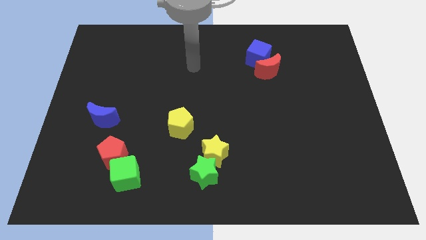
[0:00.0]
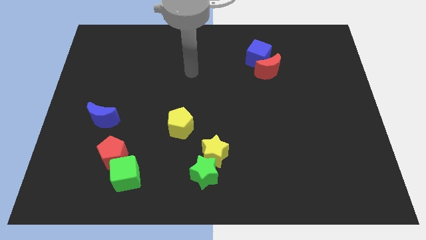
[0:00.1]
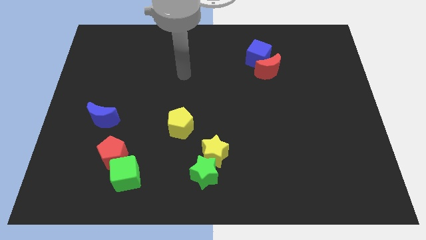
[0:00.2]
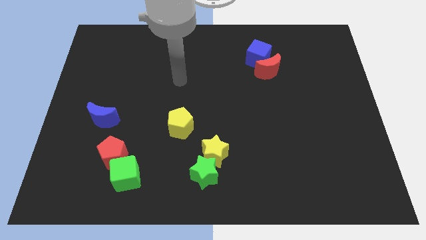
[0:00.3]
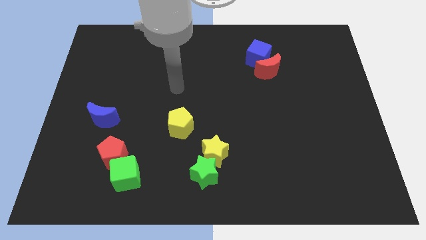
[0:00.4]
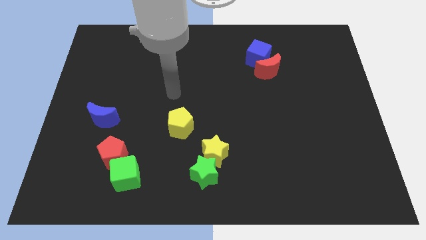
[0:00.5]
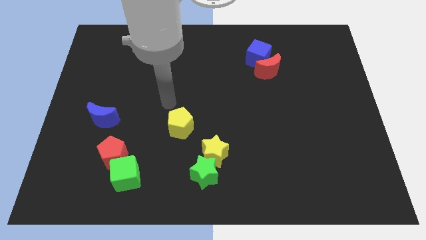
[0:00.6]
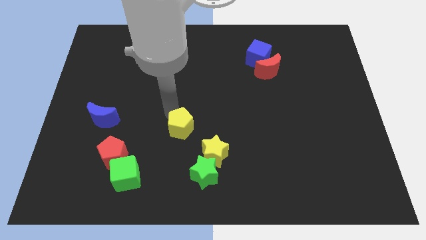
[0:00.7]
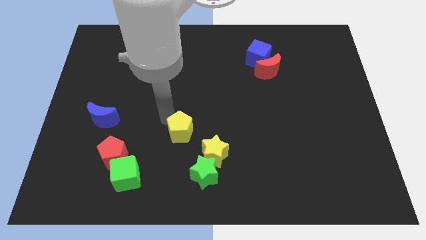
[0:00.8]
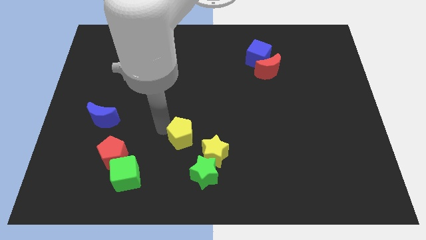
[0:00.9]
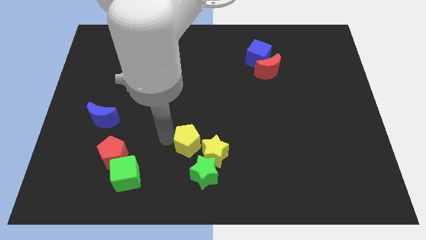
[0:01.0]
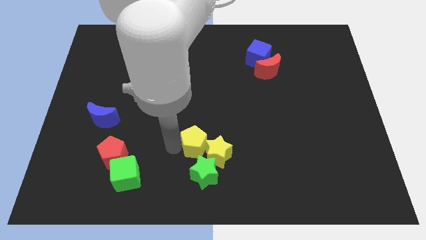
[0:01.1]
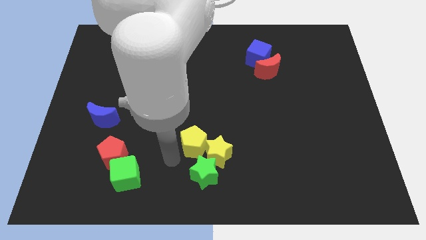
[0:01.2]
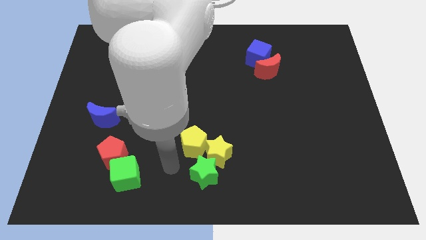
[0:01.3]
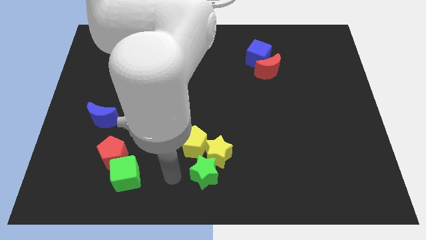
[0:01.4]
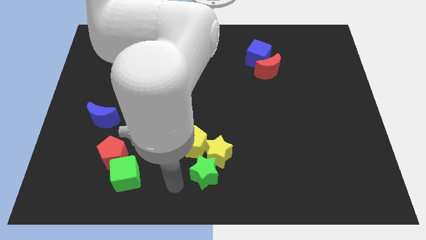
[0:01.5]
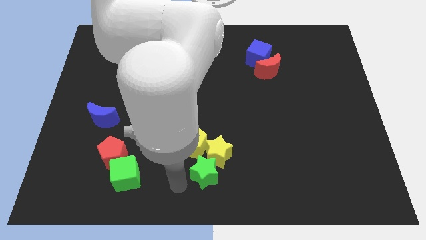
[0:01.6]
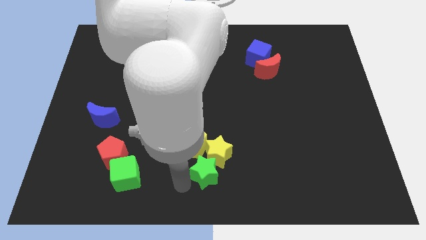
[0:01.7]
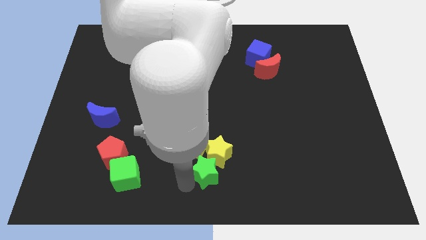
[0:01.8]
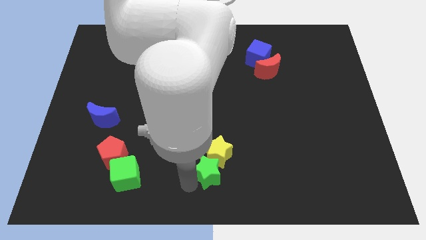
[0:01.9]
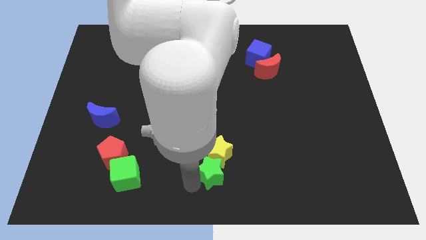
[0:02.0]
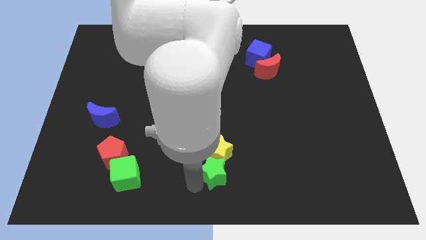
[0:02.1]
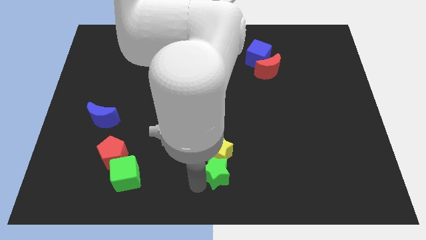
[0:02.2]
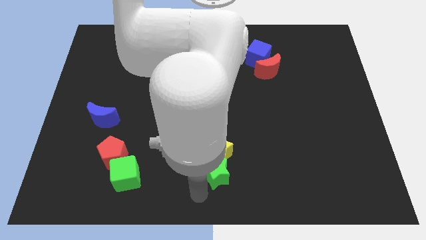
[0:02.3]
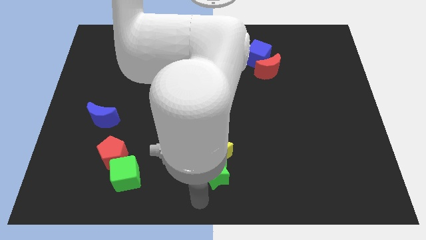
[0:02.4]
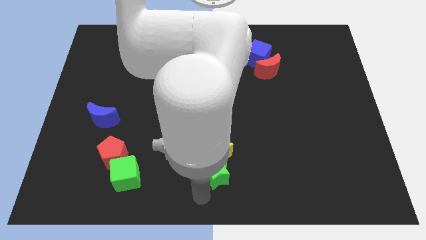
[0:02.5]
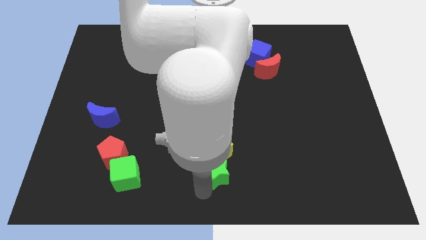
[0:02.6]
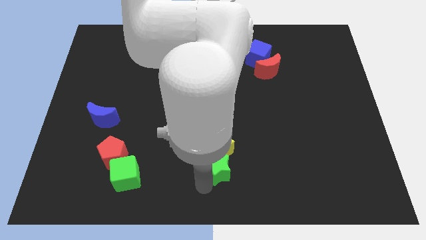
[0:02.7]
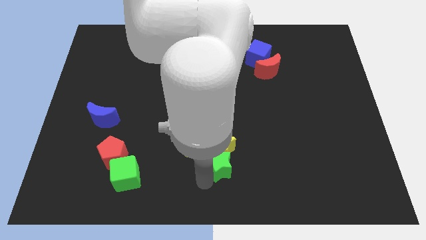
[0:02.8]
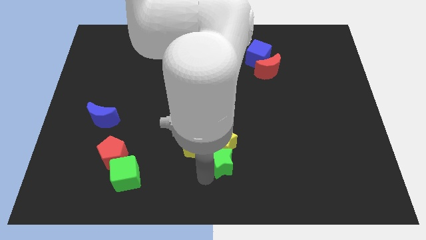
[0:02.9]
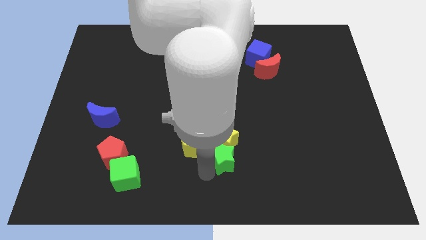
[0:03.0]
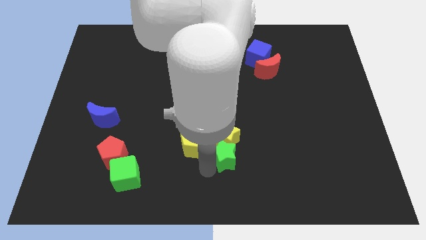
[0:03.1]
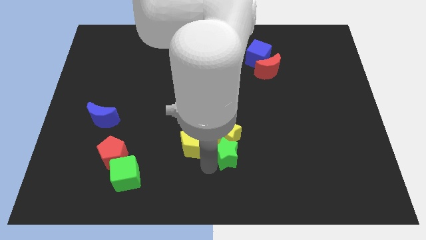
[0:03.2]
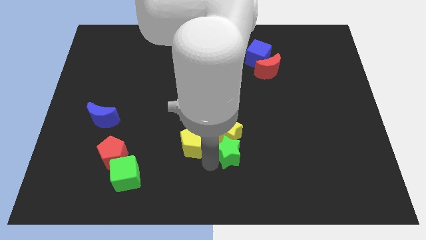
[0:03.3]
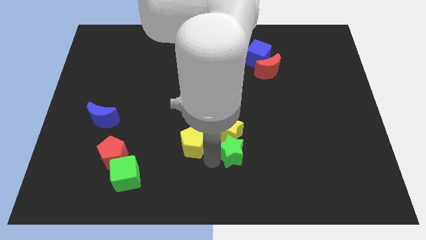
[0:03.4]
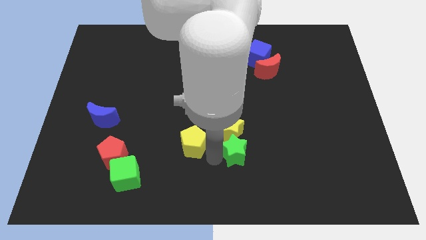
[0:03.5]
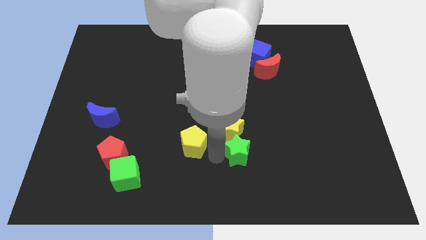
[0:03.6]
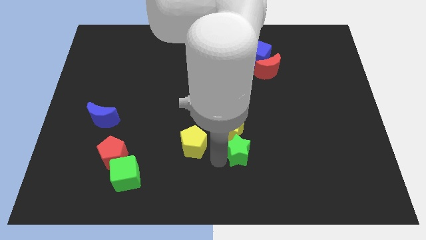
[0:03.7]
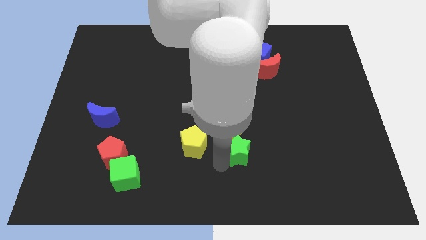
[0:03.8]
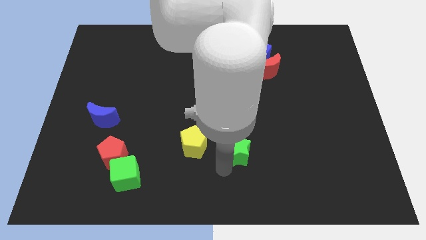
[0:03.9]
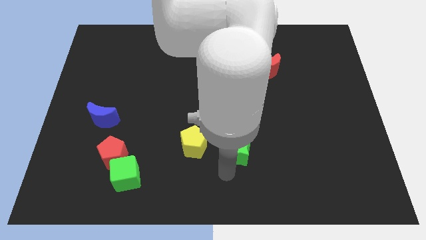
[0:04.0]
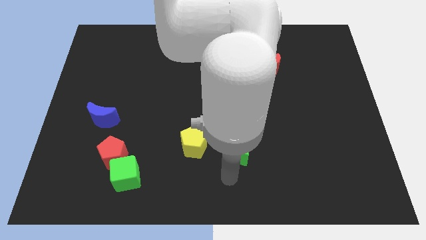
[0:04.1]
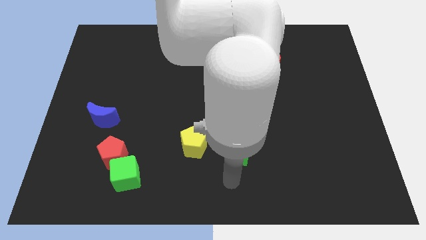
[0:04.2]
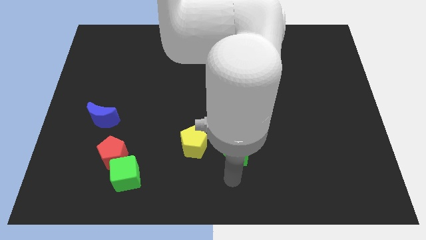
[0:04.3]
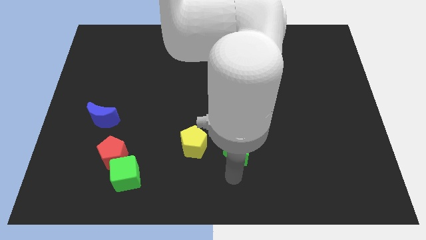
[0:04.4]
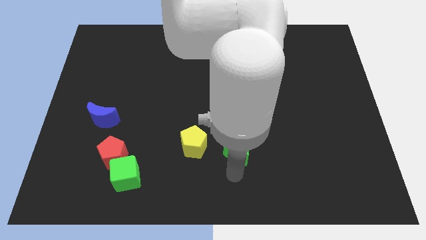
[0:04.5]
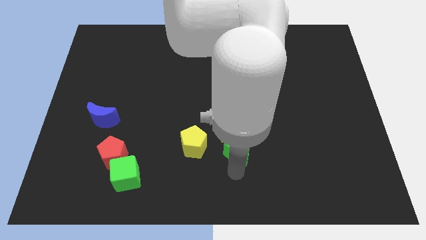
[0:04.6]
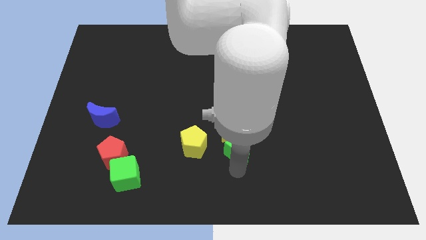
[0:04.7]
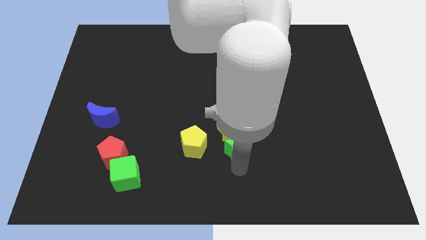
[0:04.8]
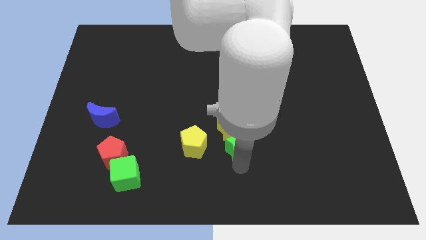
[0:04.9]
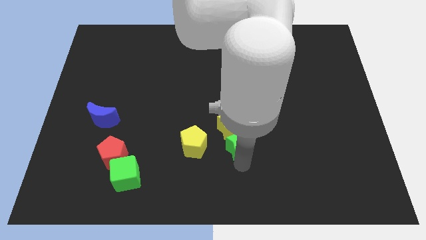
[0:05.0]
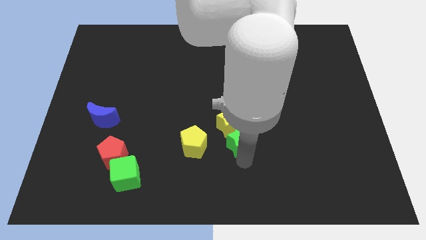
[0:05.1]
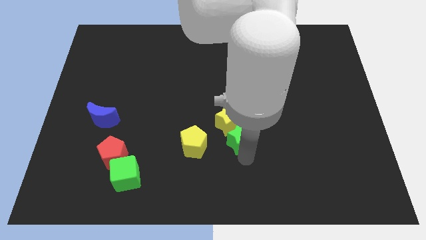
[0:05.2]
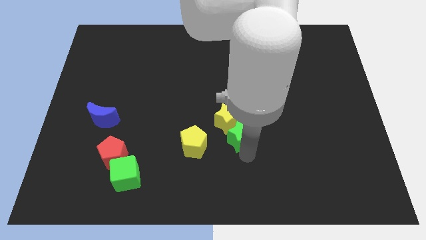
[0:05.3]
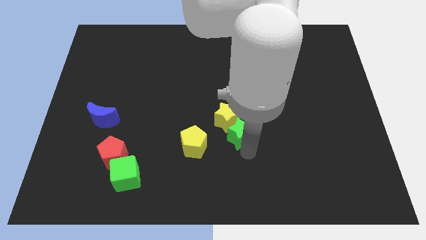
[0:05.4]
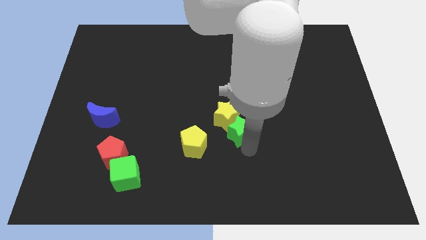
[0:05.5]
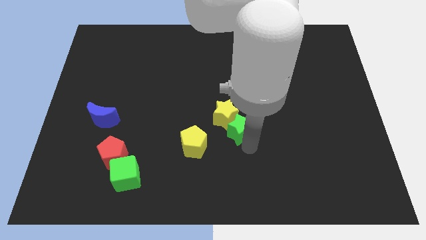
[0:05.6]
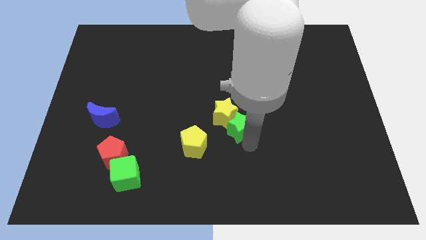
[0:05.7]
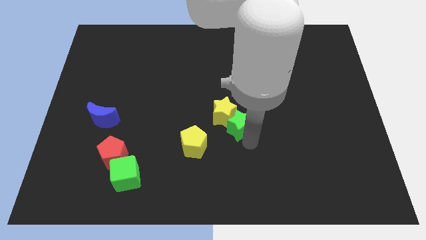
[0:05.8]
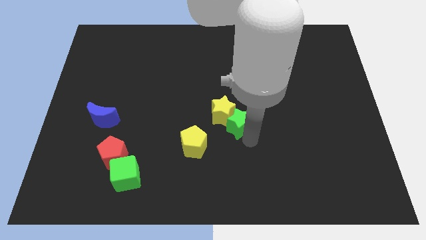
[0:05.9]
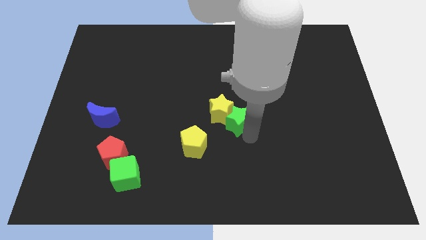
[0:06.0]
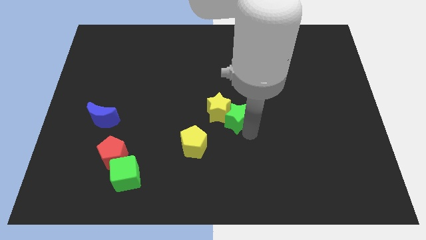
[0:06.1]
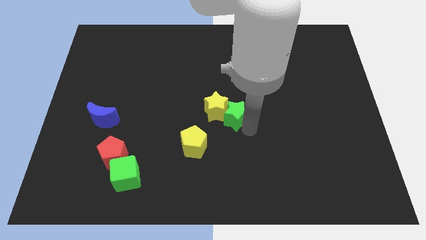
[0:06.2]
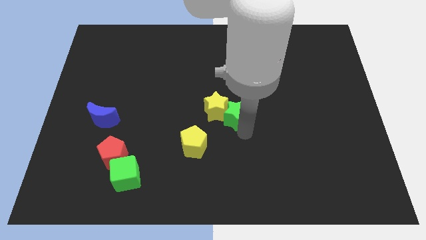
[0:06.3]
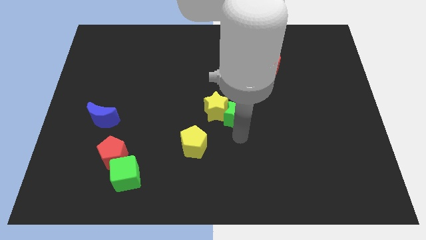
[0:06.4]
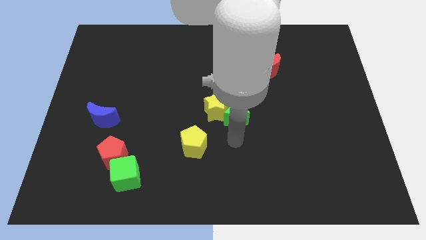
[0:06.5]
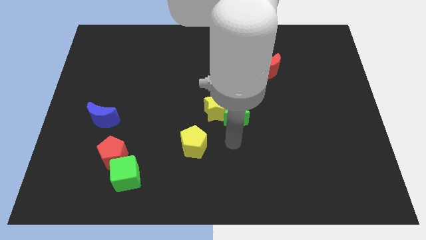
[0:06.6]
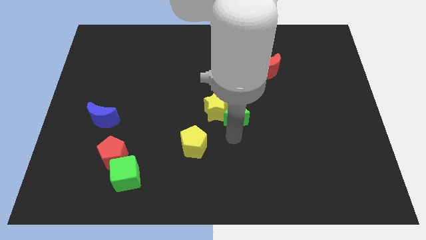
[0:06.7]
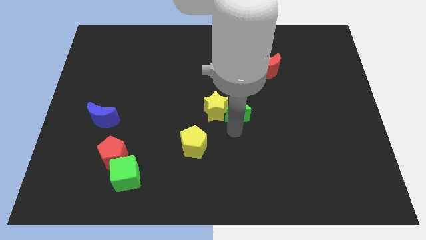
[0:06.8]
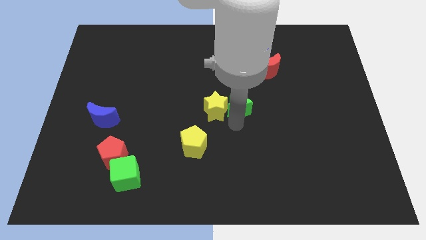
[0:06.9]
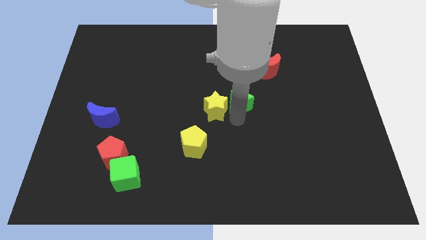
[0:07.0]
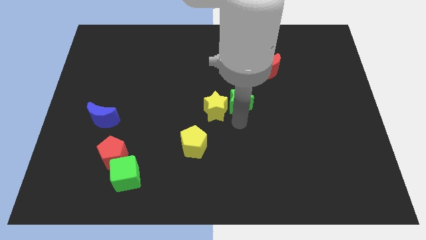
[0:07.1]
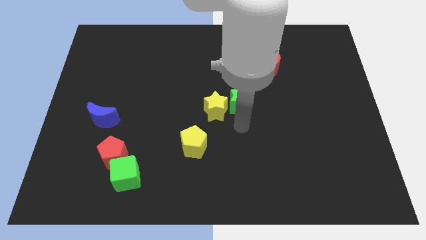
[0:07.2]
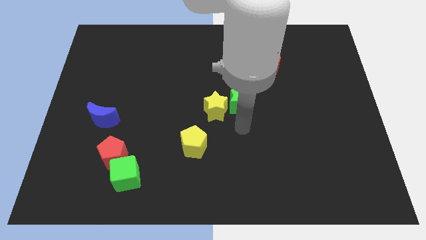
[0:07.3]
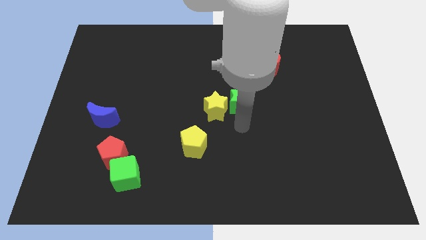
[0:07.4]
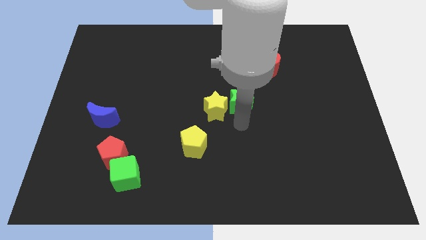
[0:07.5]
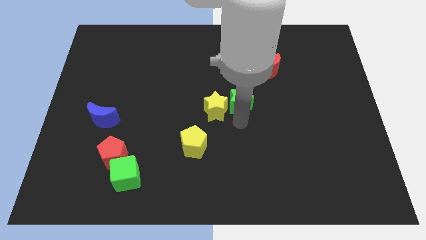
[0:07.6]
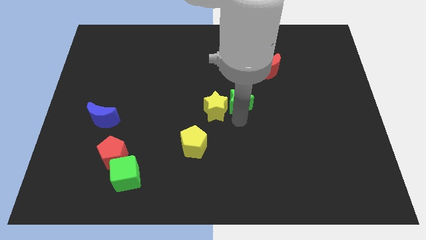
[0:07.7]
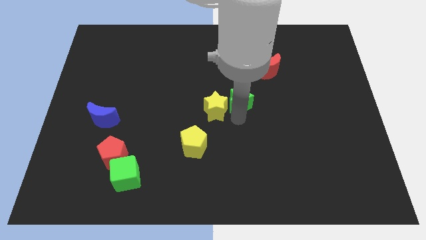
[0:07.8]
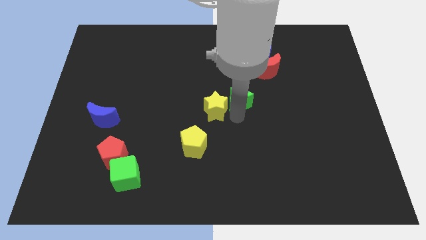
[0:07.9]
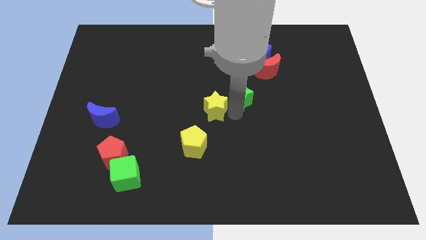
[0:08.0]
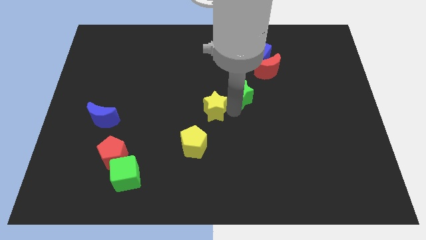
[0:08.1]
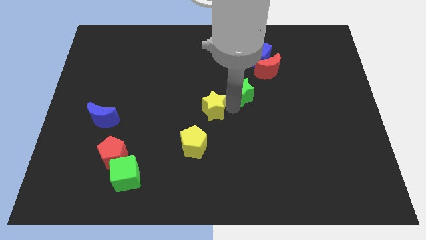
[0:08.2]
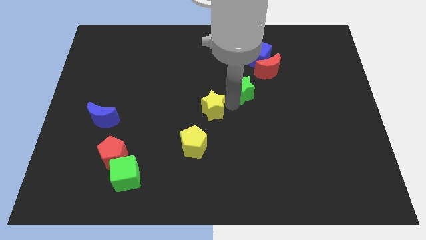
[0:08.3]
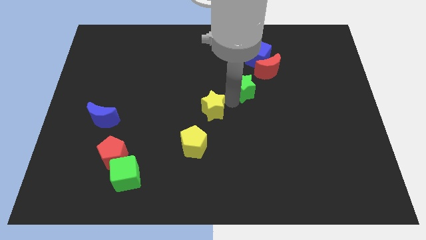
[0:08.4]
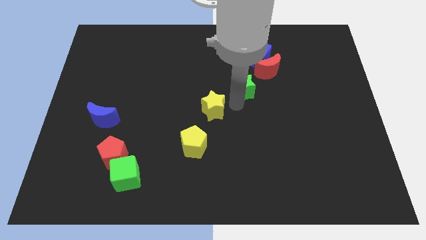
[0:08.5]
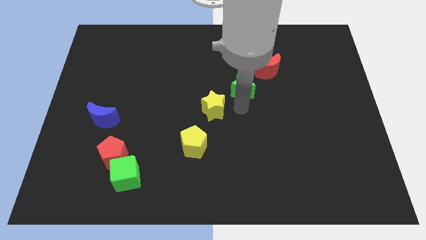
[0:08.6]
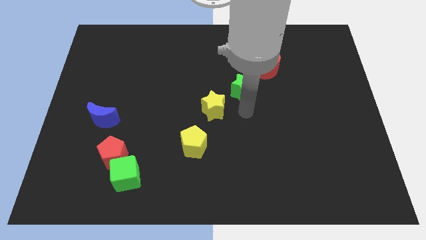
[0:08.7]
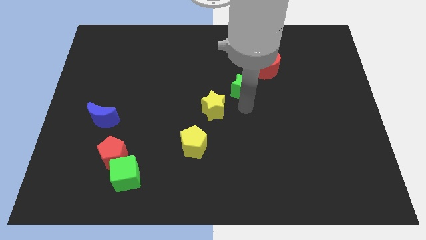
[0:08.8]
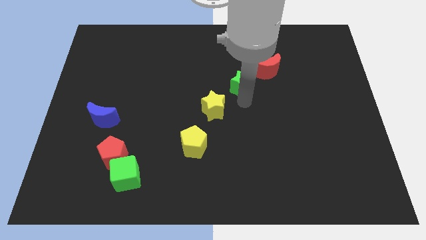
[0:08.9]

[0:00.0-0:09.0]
slide the green star to the bottom left side of the blue cube
